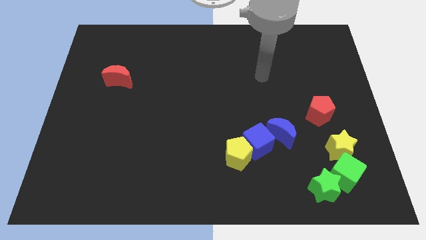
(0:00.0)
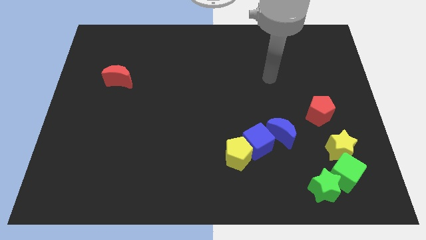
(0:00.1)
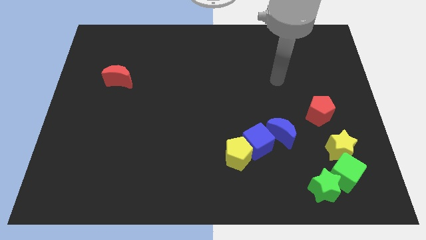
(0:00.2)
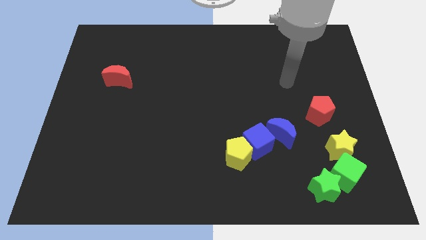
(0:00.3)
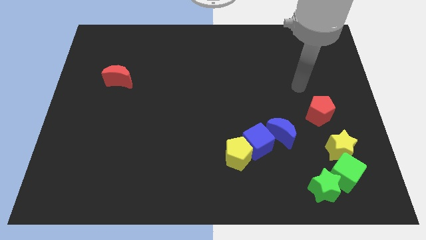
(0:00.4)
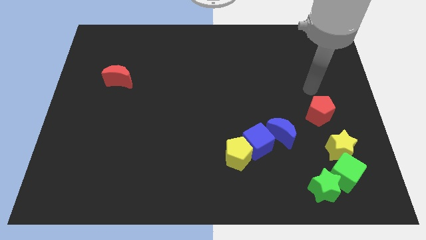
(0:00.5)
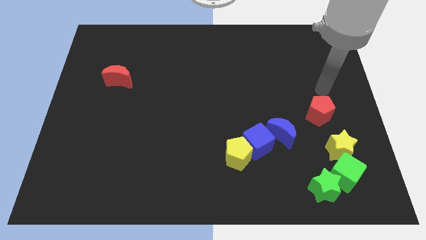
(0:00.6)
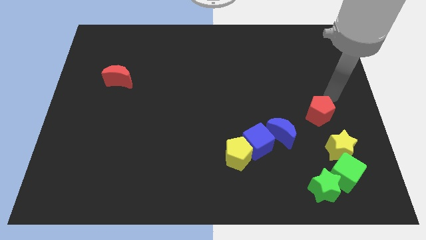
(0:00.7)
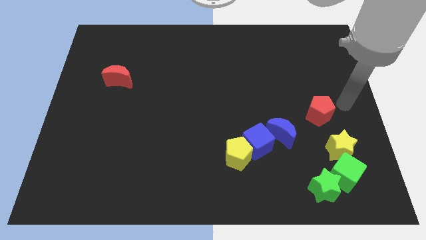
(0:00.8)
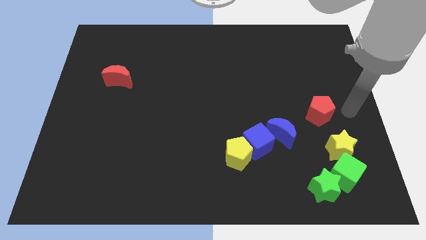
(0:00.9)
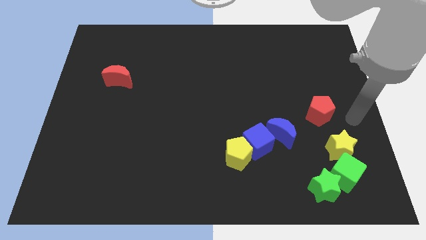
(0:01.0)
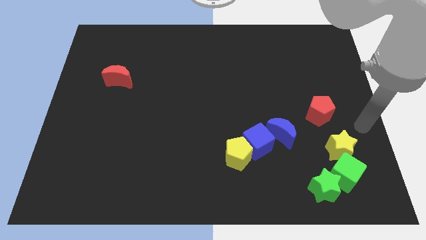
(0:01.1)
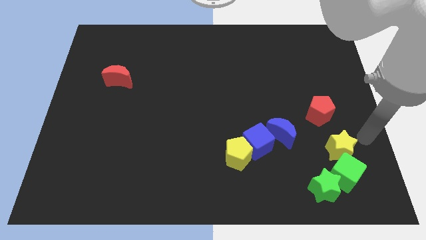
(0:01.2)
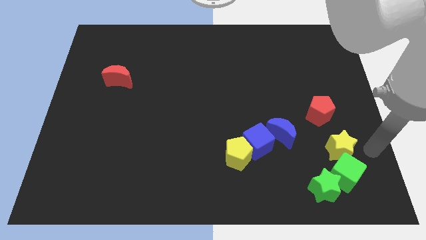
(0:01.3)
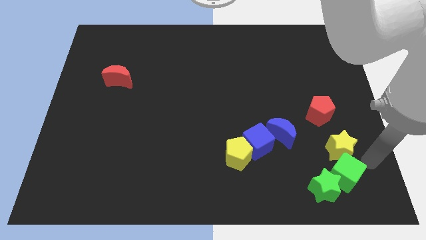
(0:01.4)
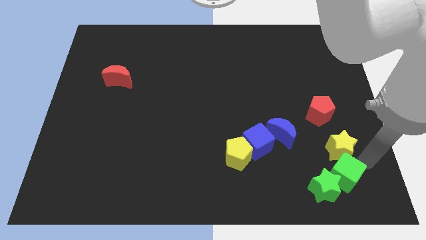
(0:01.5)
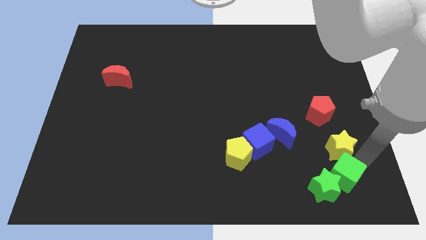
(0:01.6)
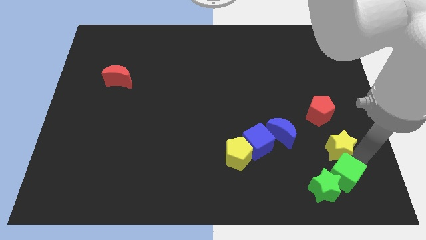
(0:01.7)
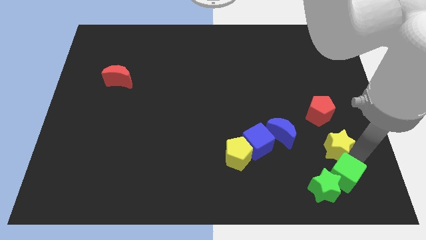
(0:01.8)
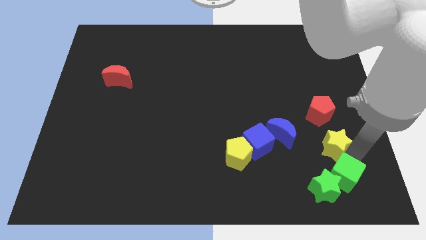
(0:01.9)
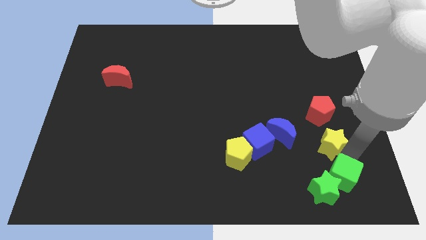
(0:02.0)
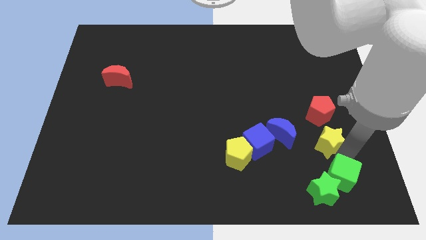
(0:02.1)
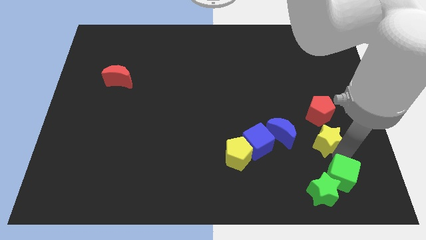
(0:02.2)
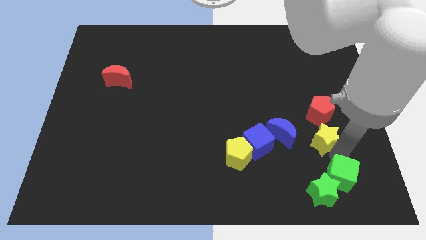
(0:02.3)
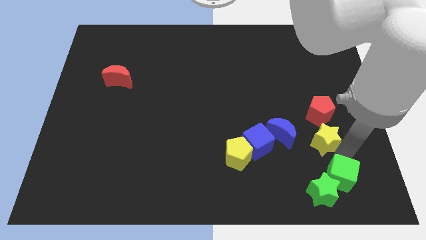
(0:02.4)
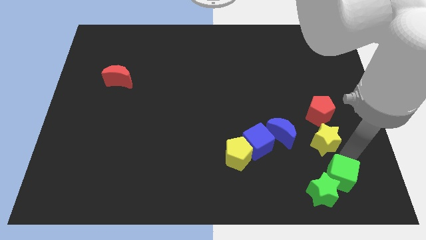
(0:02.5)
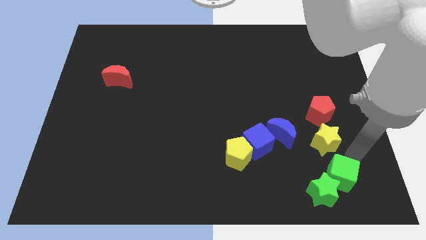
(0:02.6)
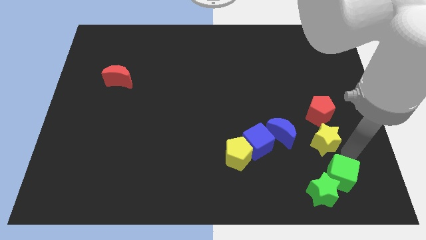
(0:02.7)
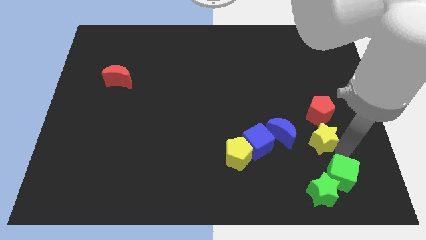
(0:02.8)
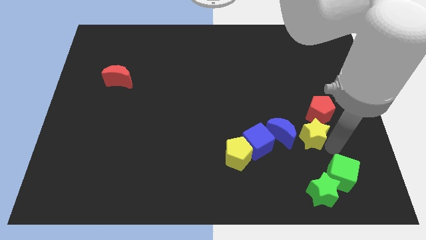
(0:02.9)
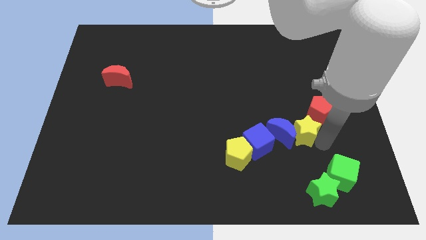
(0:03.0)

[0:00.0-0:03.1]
move the yellow star up and then to the left a little bit

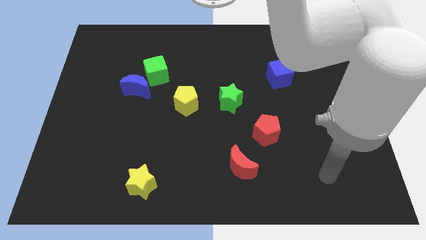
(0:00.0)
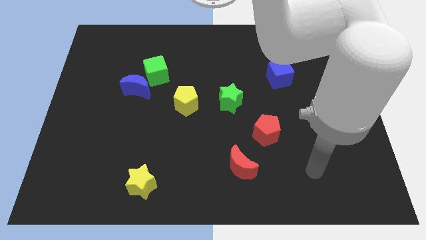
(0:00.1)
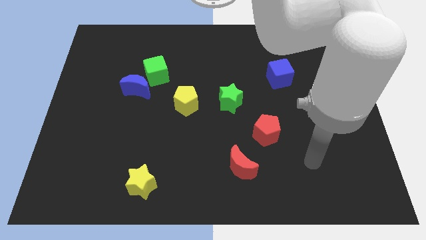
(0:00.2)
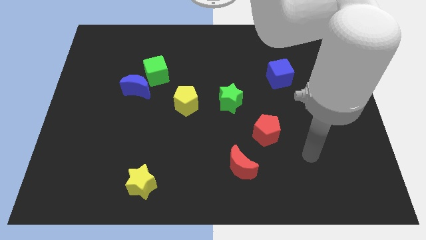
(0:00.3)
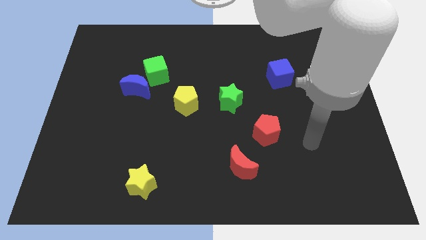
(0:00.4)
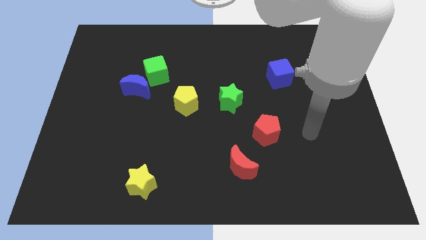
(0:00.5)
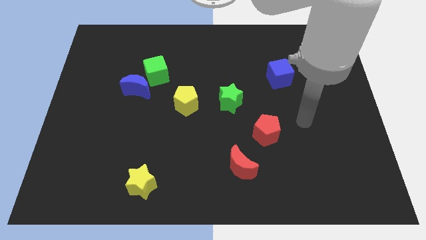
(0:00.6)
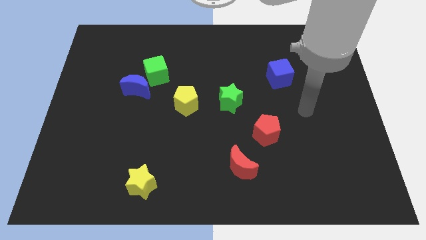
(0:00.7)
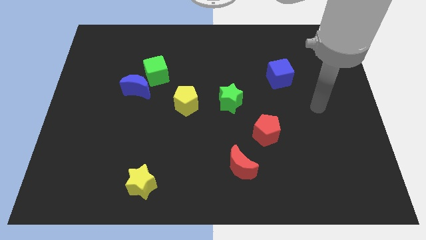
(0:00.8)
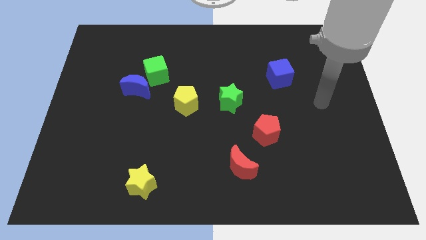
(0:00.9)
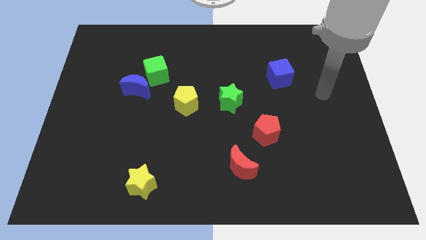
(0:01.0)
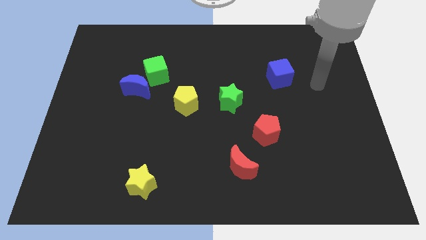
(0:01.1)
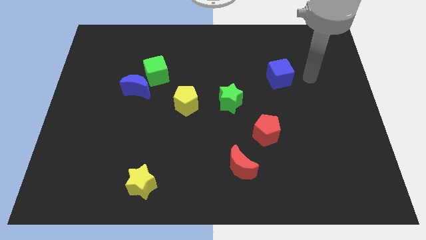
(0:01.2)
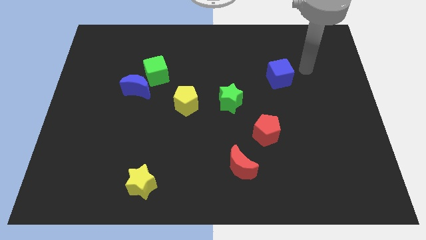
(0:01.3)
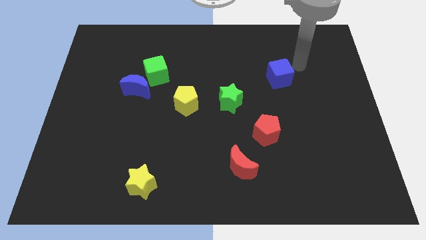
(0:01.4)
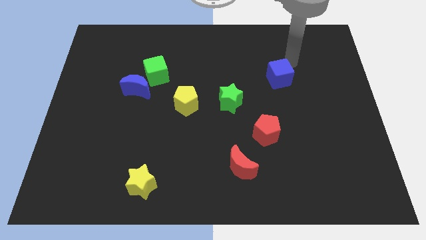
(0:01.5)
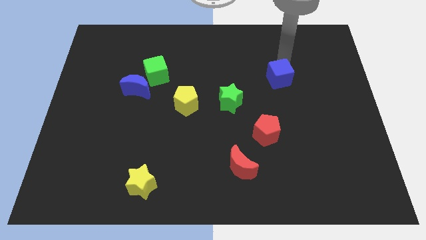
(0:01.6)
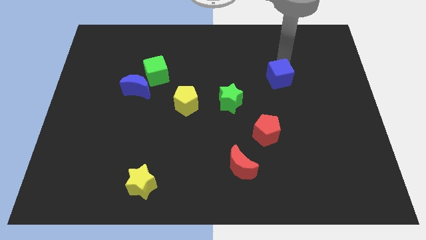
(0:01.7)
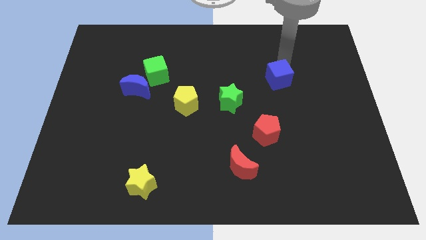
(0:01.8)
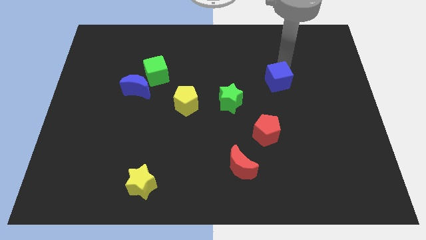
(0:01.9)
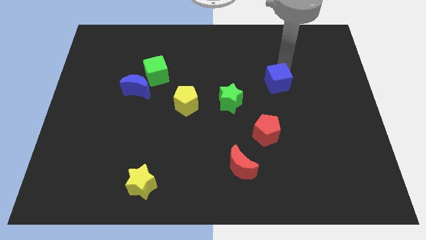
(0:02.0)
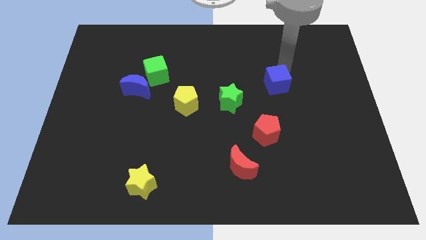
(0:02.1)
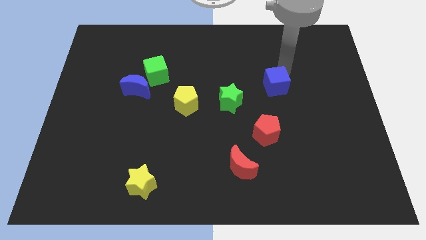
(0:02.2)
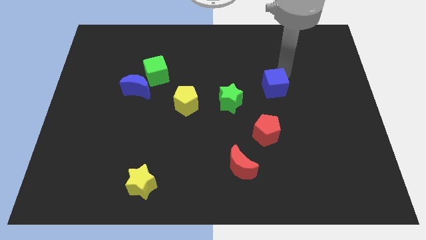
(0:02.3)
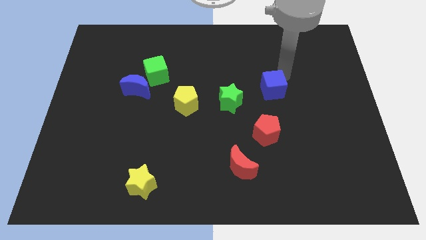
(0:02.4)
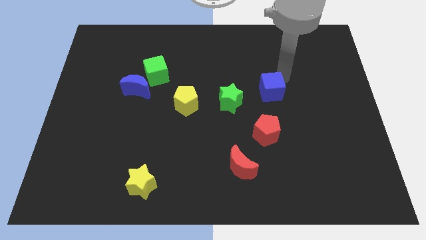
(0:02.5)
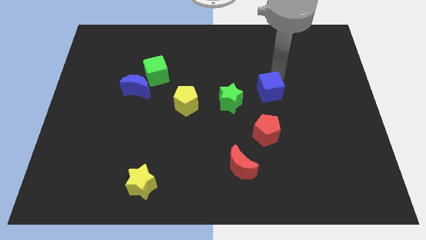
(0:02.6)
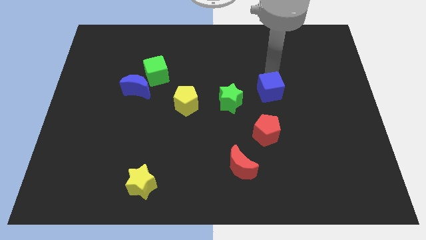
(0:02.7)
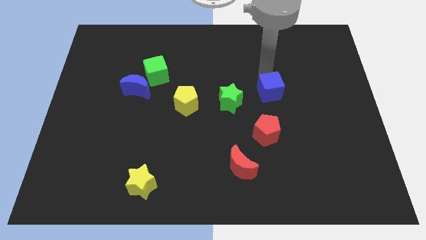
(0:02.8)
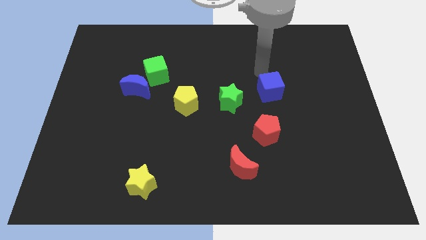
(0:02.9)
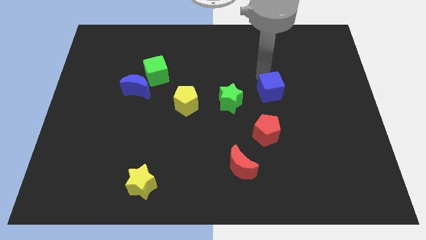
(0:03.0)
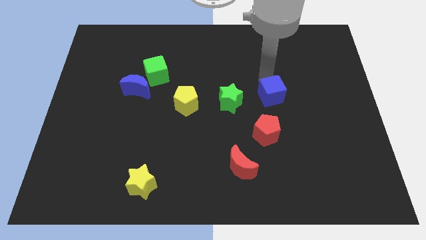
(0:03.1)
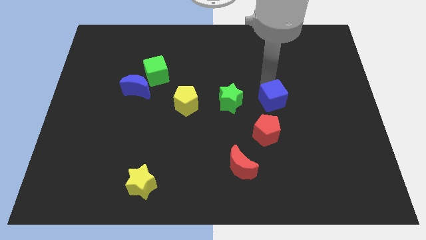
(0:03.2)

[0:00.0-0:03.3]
slightly move the blue cube down

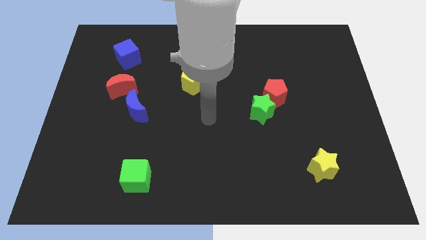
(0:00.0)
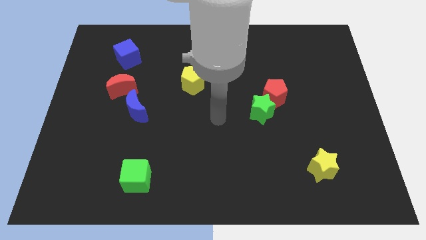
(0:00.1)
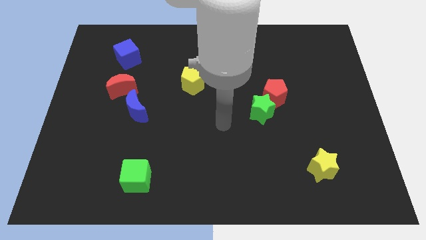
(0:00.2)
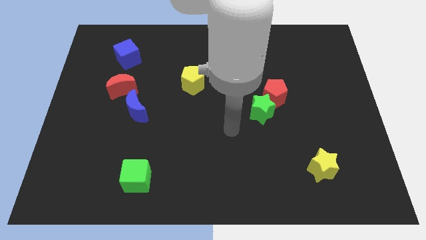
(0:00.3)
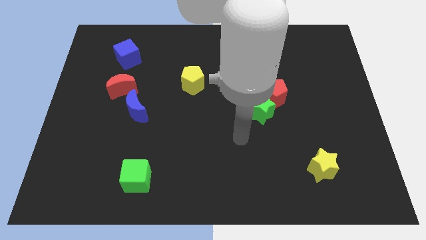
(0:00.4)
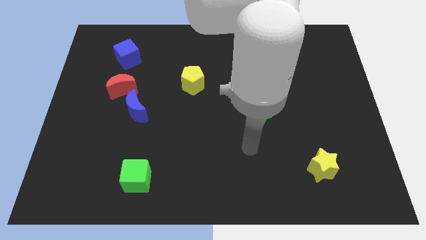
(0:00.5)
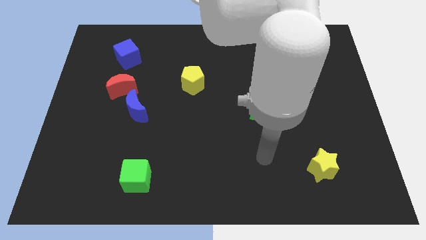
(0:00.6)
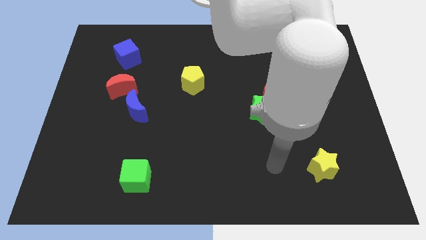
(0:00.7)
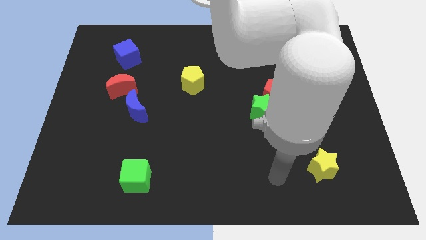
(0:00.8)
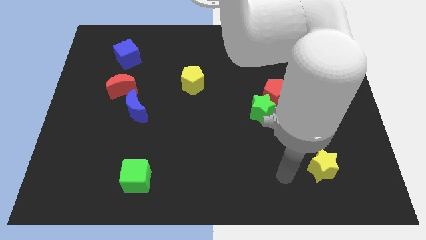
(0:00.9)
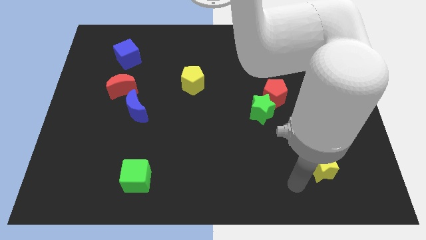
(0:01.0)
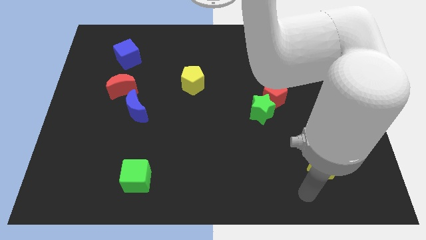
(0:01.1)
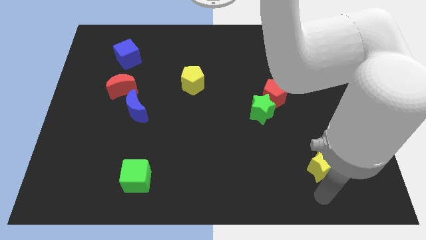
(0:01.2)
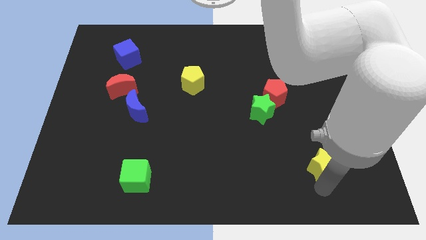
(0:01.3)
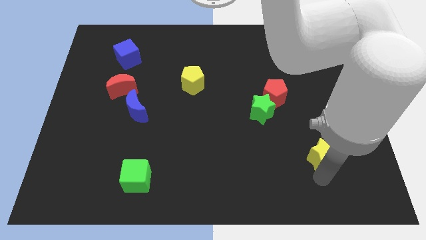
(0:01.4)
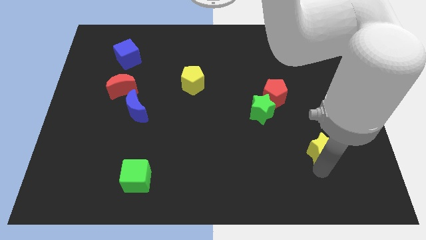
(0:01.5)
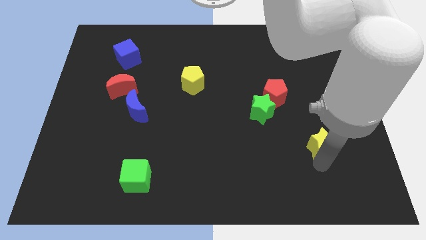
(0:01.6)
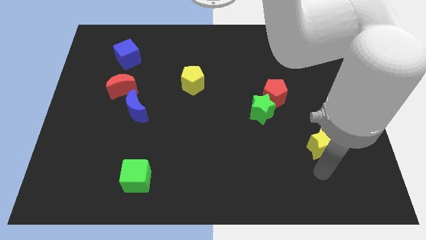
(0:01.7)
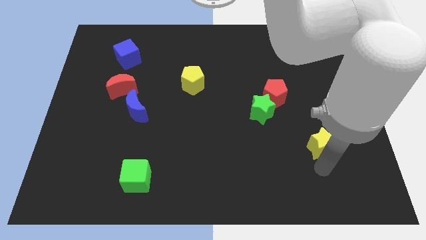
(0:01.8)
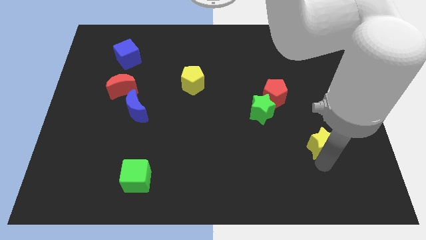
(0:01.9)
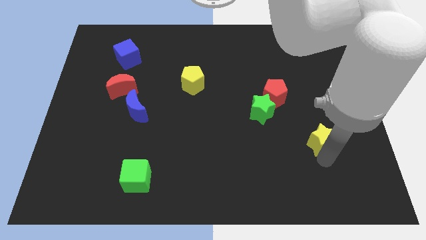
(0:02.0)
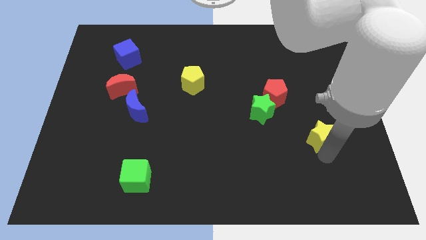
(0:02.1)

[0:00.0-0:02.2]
slide the yellow star up a little bit
